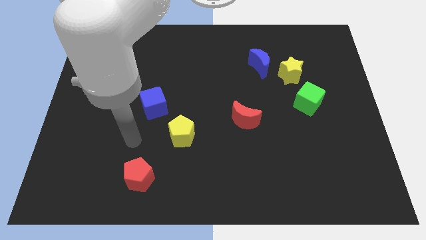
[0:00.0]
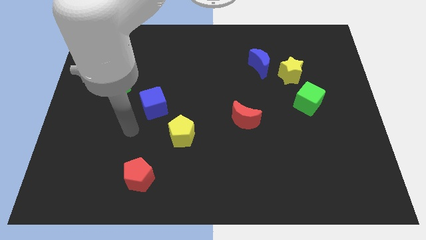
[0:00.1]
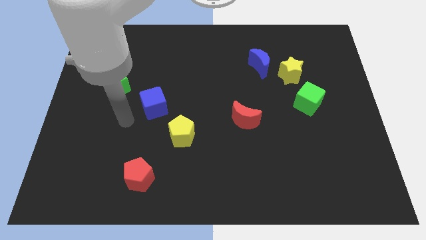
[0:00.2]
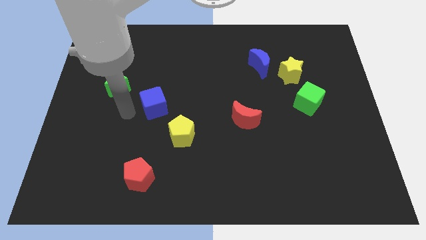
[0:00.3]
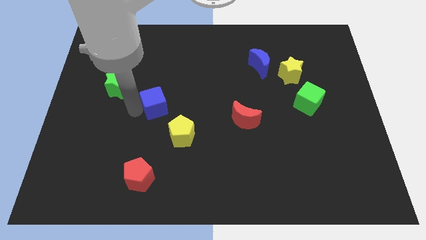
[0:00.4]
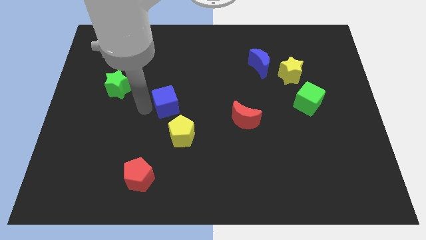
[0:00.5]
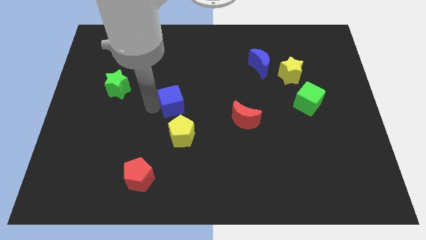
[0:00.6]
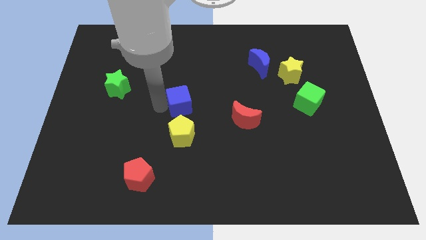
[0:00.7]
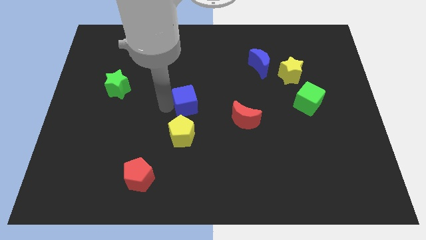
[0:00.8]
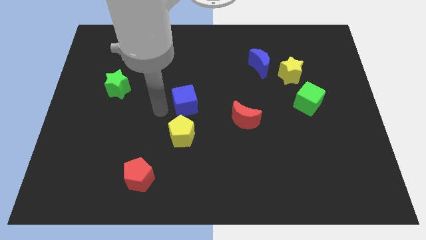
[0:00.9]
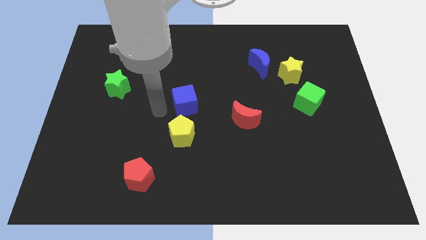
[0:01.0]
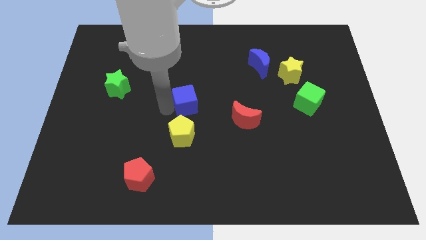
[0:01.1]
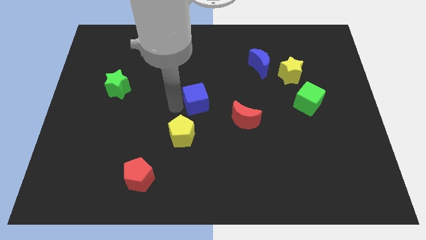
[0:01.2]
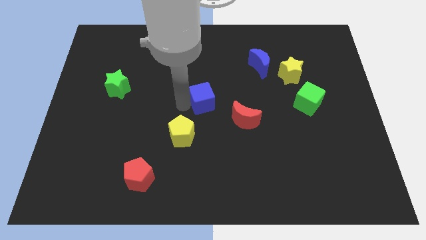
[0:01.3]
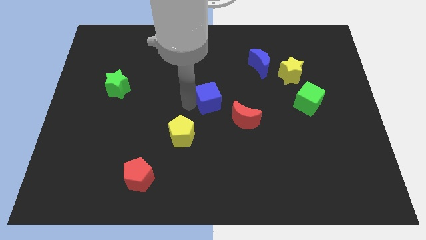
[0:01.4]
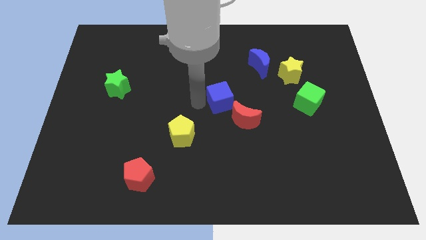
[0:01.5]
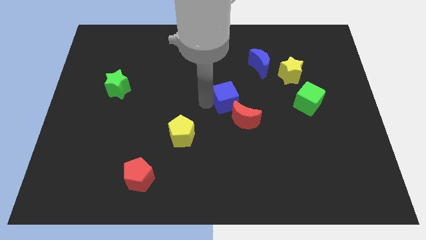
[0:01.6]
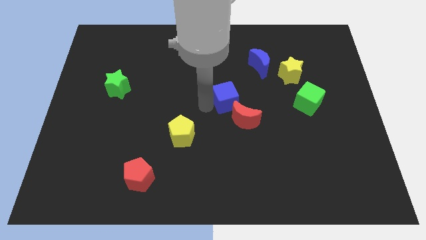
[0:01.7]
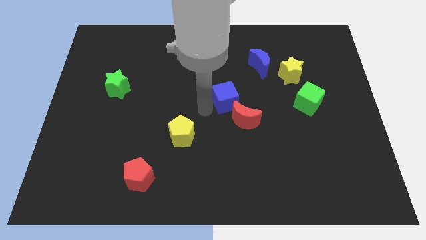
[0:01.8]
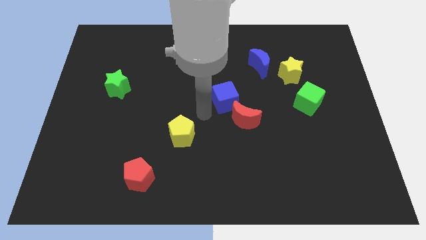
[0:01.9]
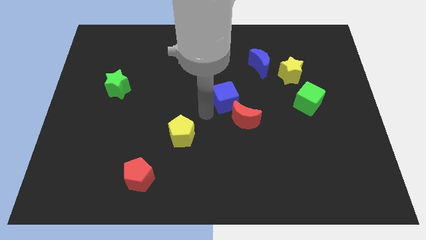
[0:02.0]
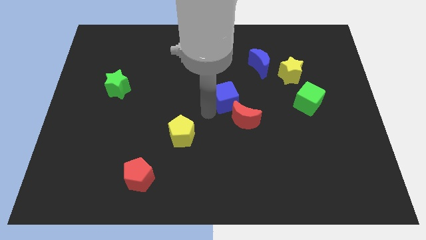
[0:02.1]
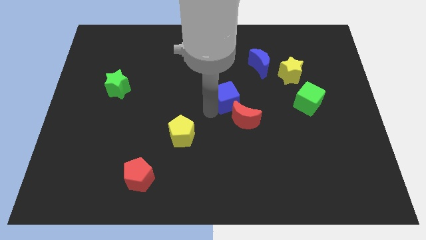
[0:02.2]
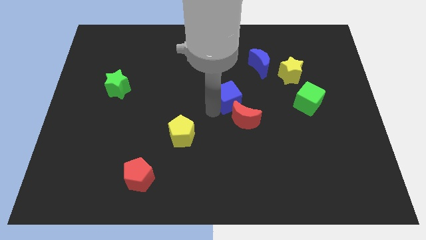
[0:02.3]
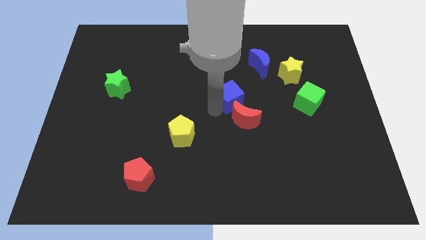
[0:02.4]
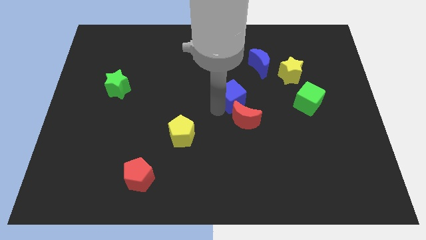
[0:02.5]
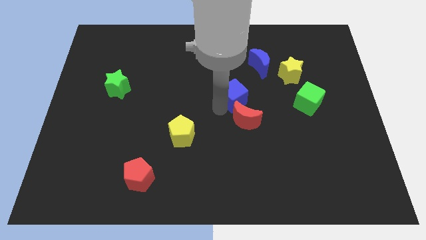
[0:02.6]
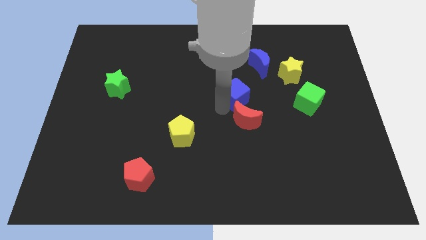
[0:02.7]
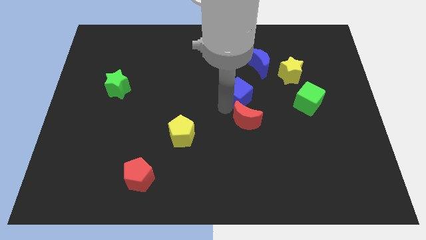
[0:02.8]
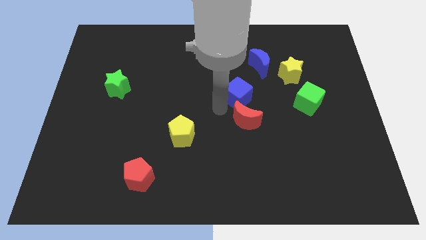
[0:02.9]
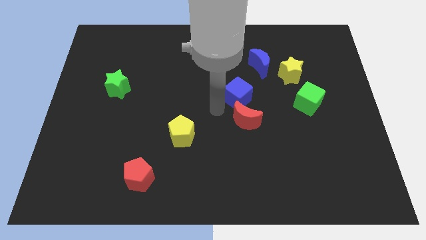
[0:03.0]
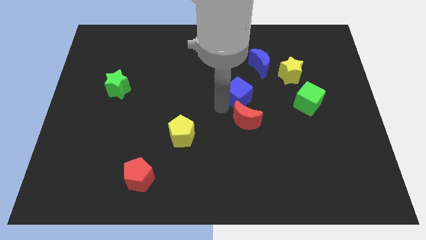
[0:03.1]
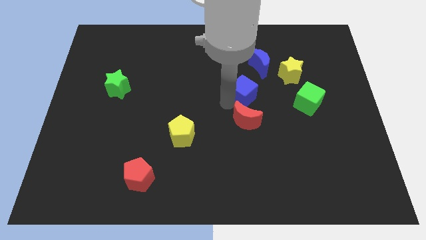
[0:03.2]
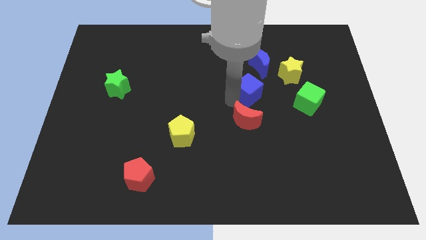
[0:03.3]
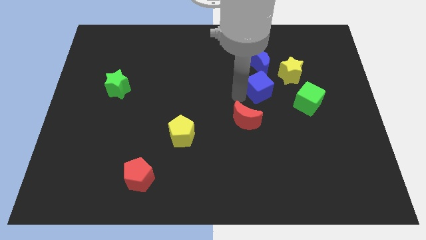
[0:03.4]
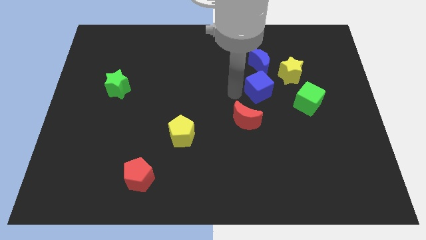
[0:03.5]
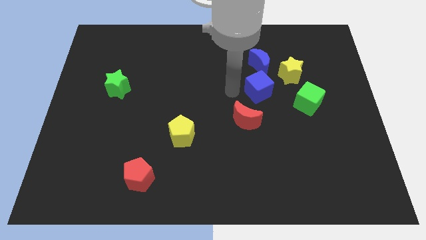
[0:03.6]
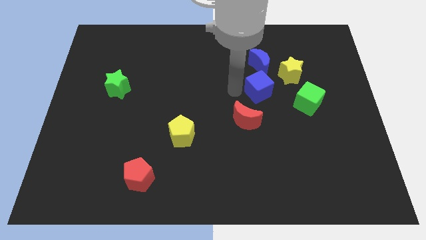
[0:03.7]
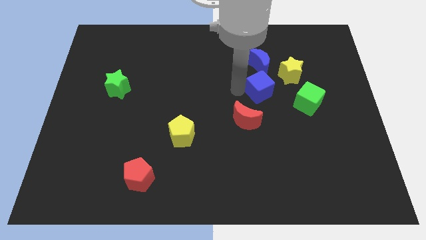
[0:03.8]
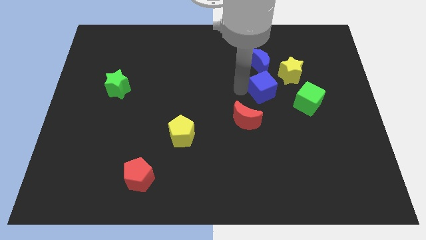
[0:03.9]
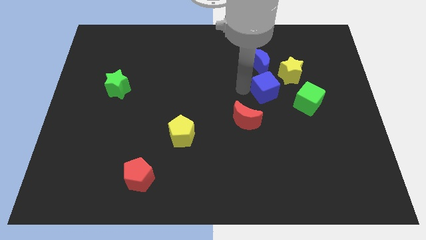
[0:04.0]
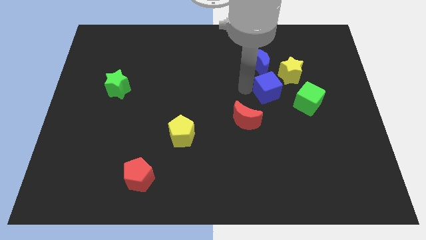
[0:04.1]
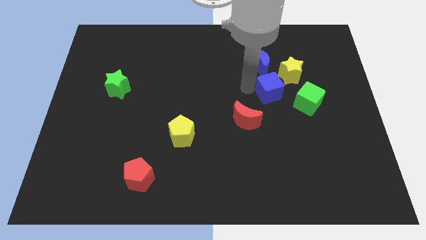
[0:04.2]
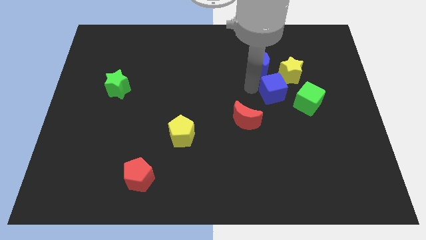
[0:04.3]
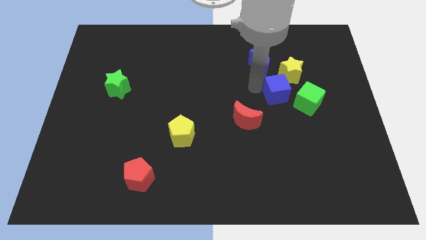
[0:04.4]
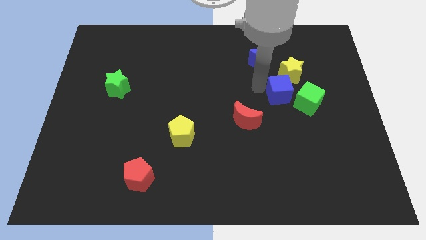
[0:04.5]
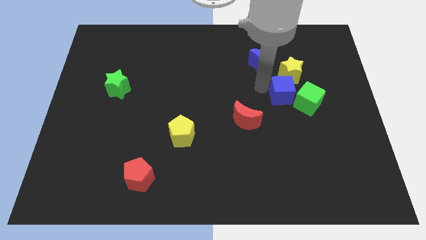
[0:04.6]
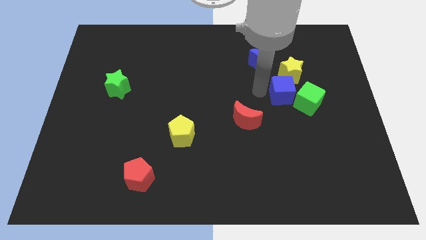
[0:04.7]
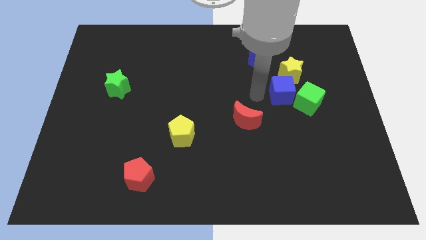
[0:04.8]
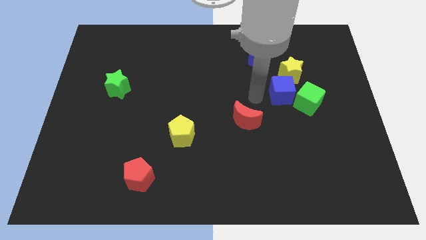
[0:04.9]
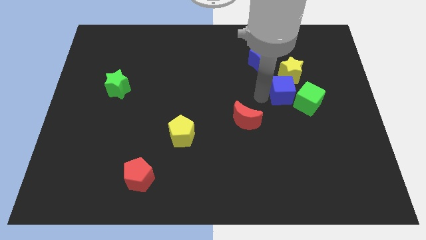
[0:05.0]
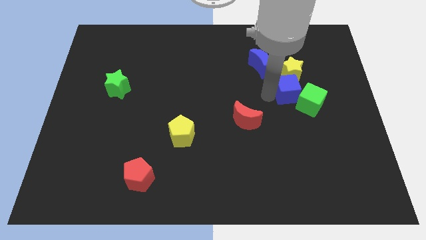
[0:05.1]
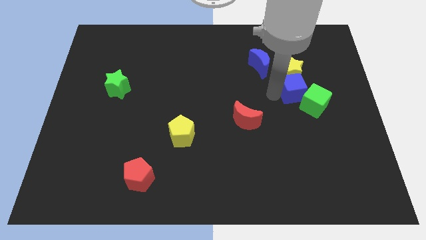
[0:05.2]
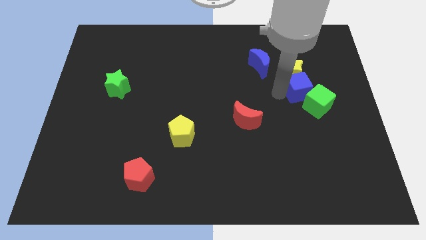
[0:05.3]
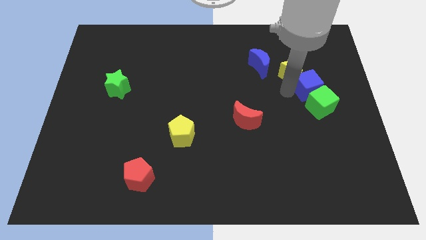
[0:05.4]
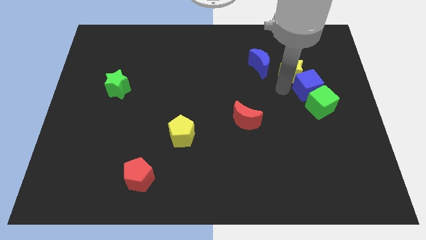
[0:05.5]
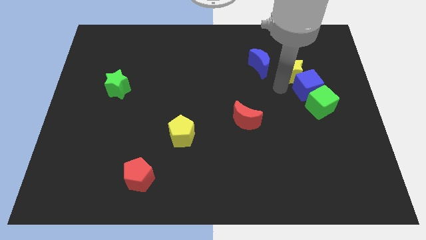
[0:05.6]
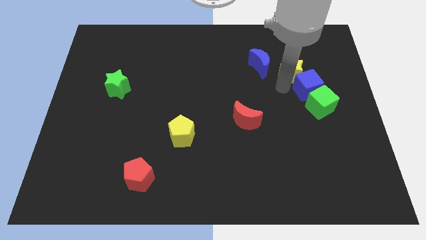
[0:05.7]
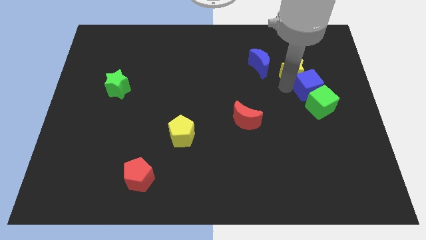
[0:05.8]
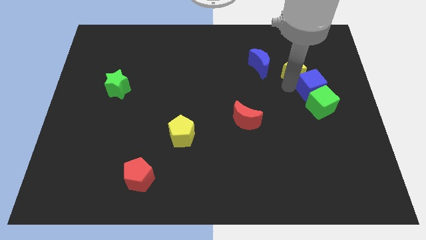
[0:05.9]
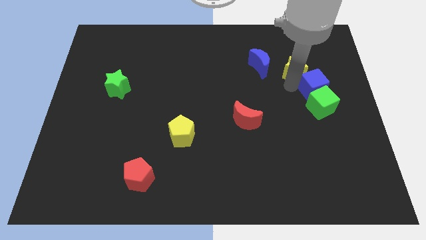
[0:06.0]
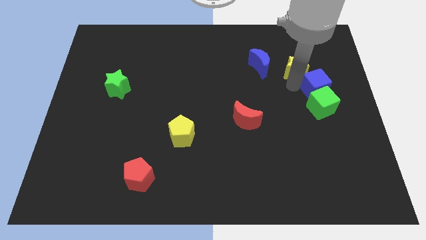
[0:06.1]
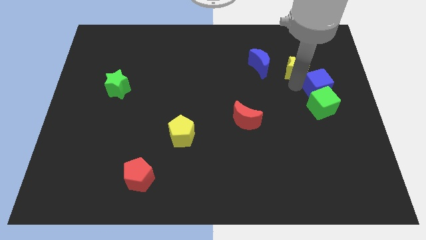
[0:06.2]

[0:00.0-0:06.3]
move the blue cube to the right side
